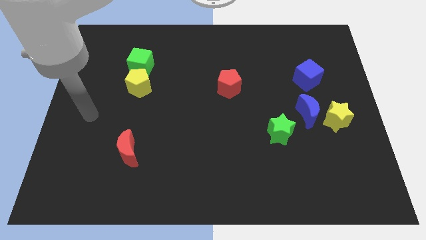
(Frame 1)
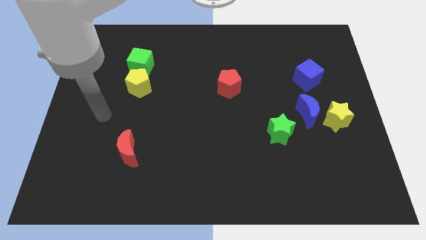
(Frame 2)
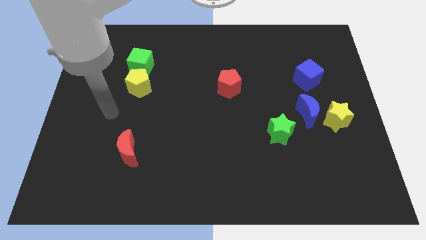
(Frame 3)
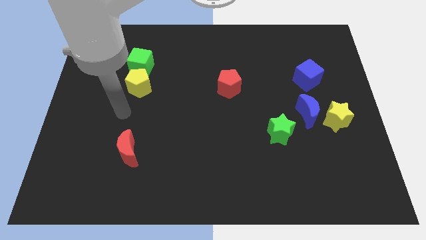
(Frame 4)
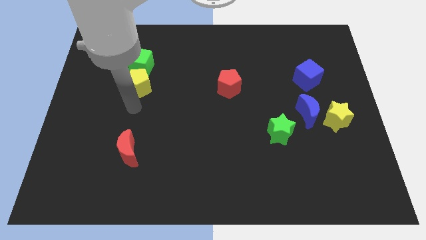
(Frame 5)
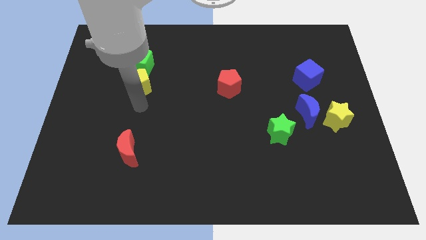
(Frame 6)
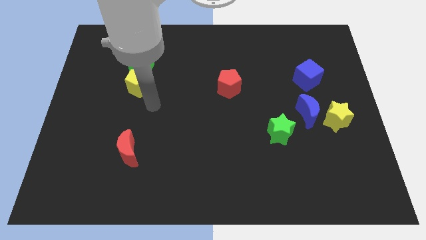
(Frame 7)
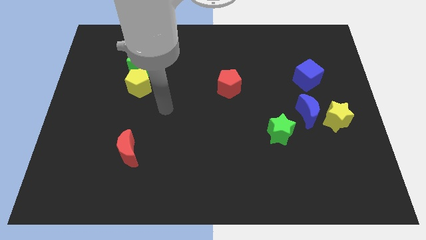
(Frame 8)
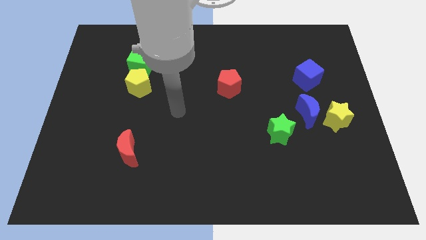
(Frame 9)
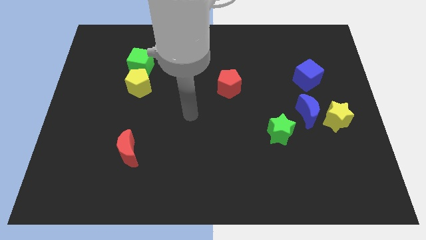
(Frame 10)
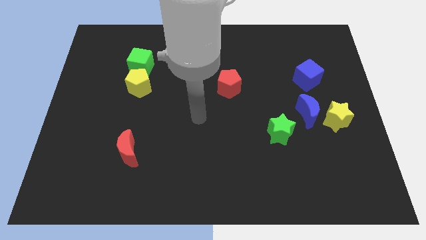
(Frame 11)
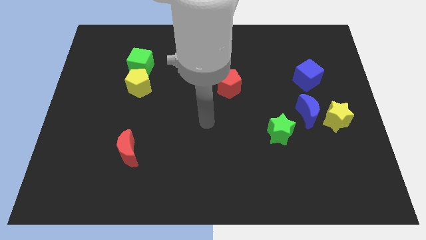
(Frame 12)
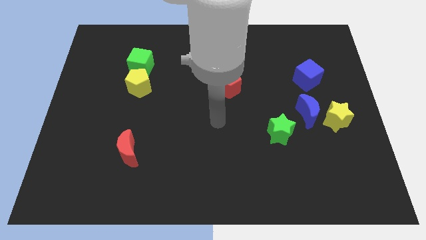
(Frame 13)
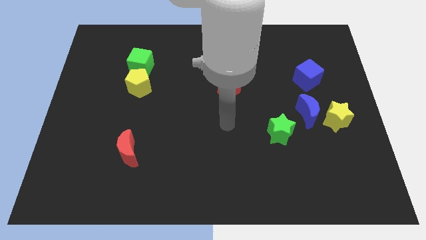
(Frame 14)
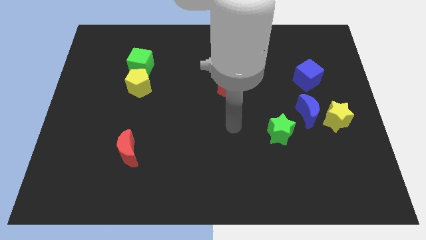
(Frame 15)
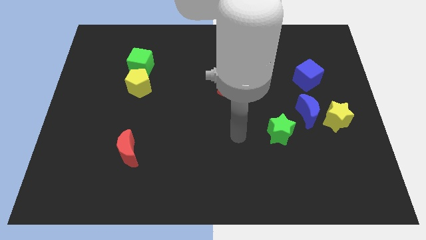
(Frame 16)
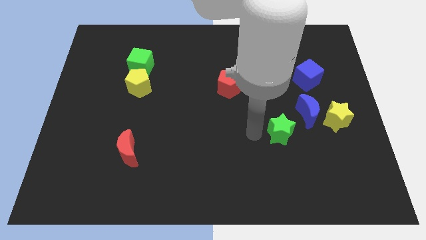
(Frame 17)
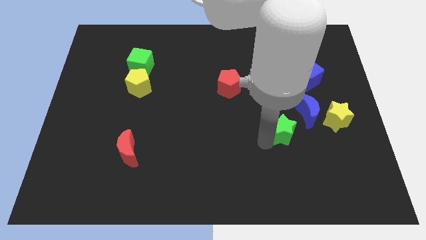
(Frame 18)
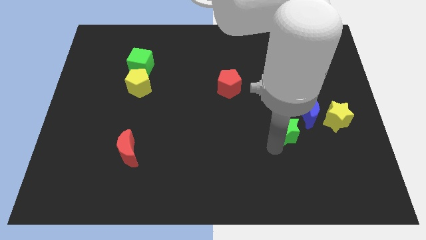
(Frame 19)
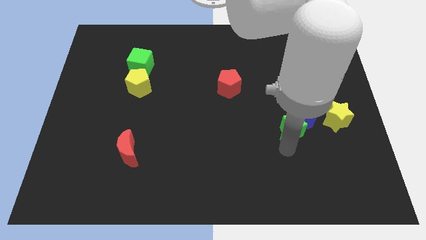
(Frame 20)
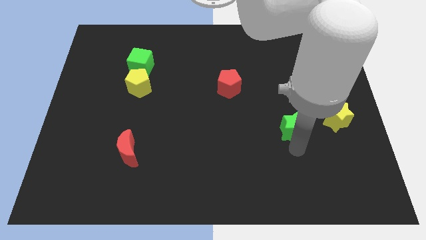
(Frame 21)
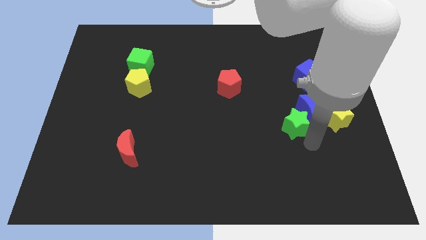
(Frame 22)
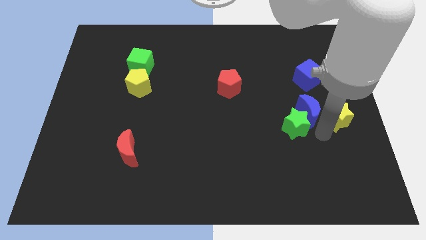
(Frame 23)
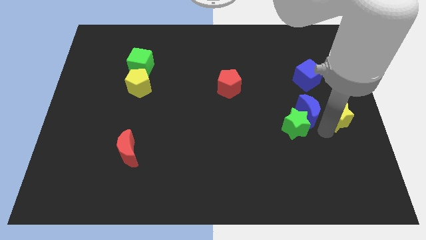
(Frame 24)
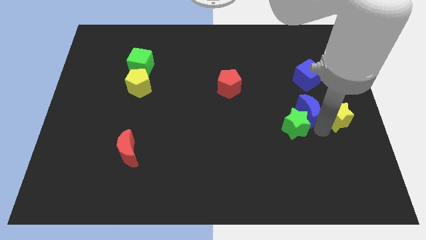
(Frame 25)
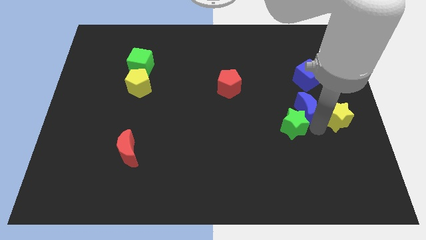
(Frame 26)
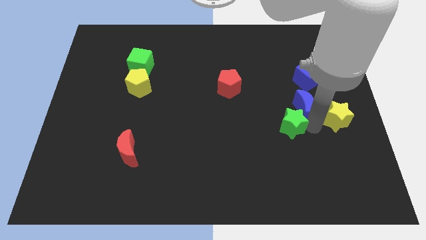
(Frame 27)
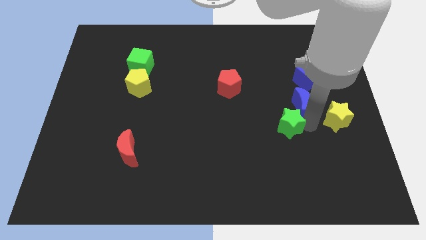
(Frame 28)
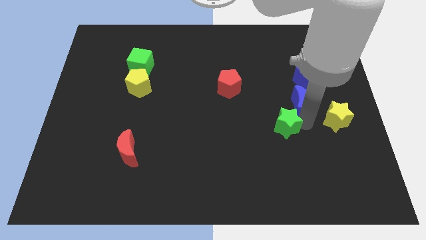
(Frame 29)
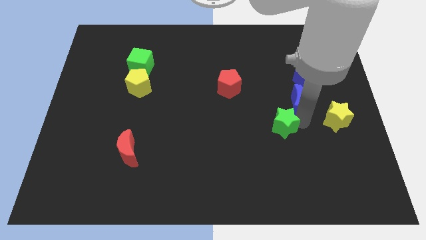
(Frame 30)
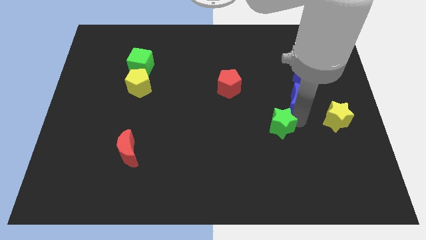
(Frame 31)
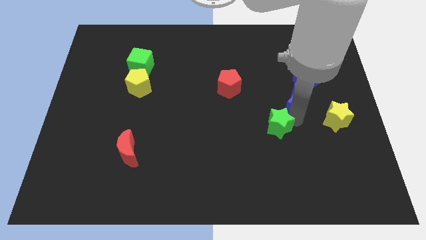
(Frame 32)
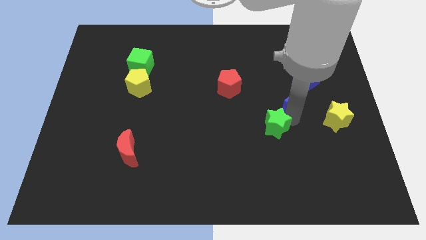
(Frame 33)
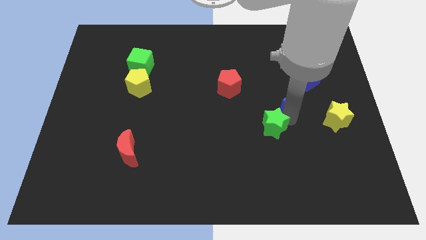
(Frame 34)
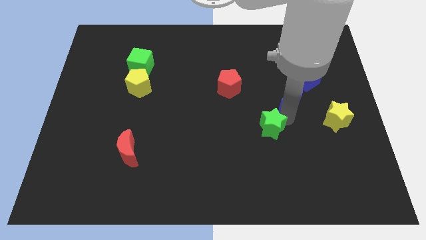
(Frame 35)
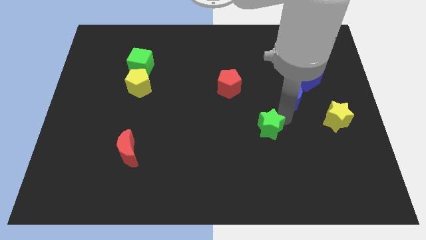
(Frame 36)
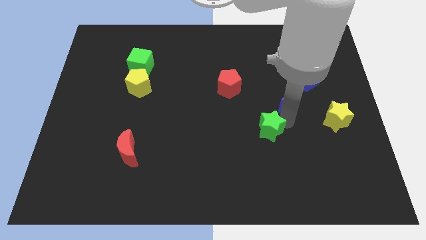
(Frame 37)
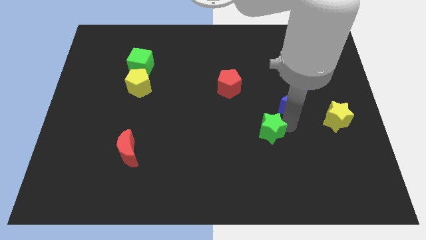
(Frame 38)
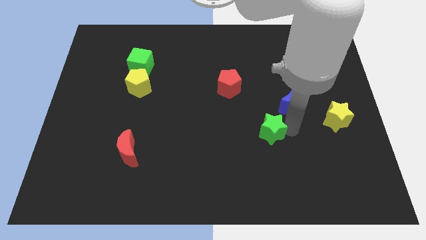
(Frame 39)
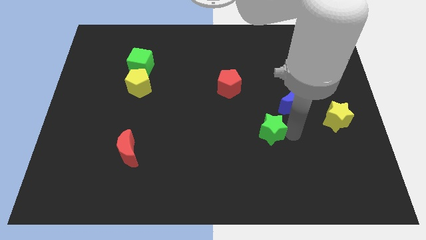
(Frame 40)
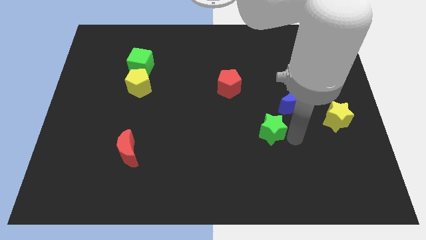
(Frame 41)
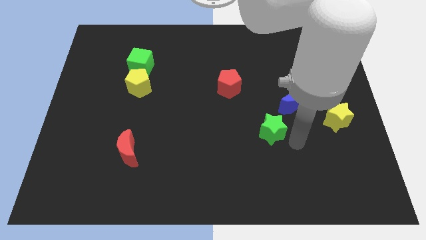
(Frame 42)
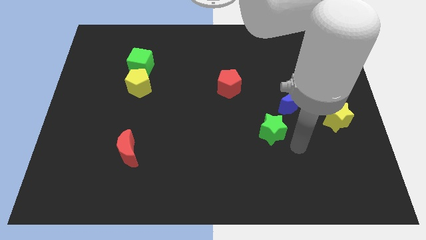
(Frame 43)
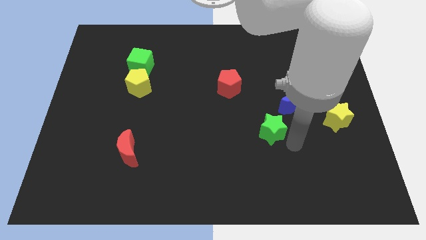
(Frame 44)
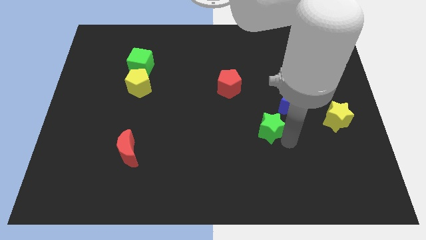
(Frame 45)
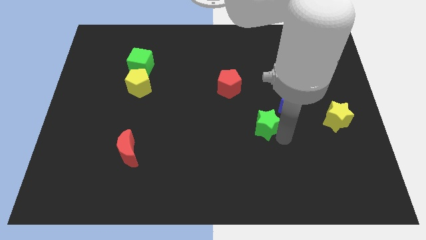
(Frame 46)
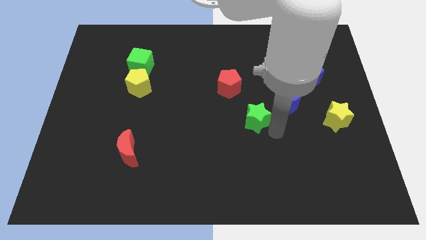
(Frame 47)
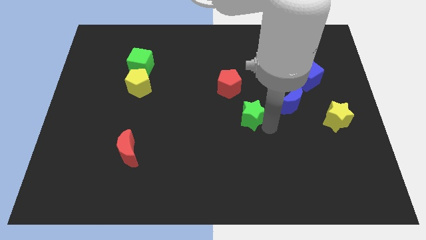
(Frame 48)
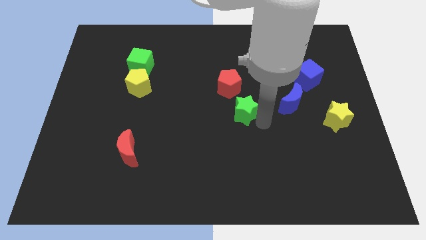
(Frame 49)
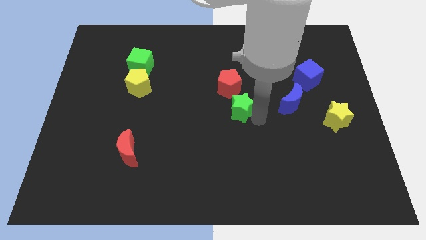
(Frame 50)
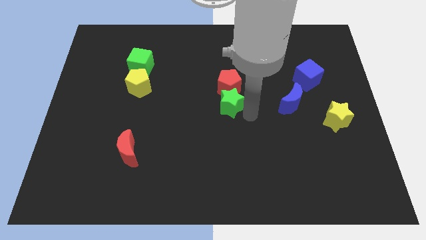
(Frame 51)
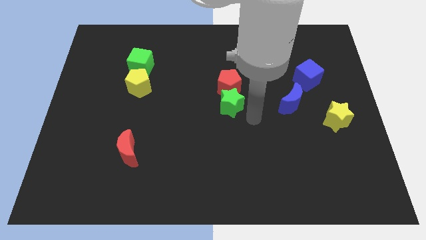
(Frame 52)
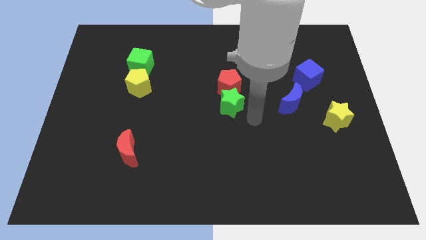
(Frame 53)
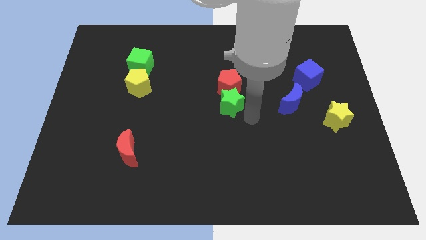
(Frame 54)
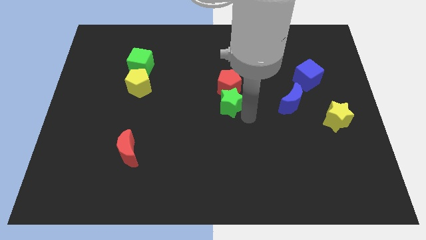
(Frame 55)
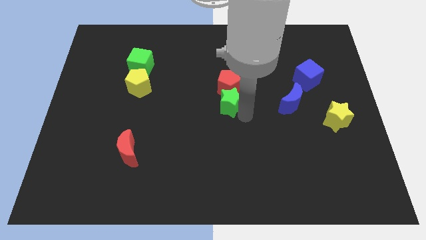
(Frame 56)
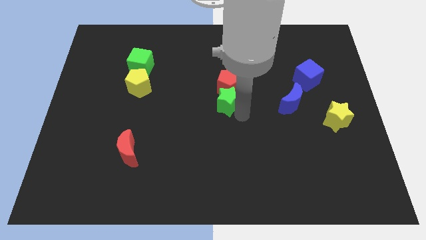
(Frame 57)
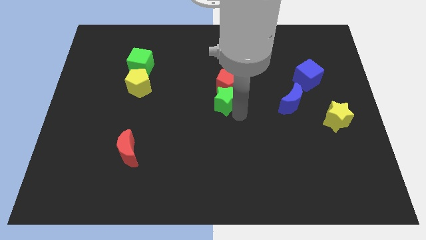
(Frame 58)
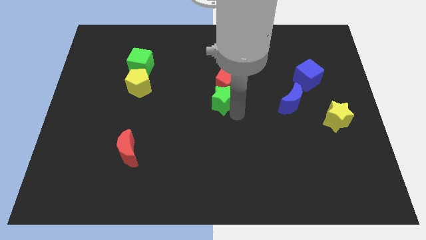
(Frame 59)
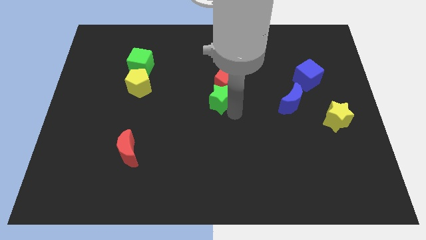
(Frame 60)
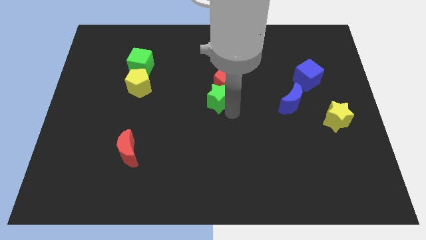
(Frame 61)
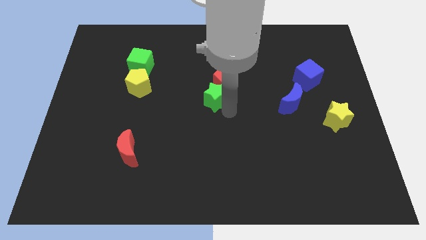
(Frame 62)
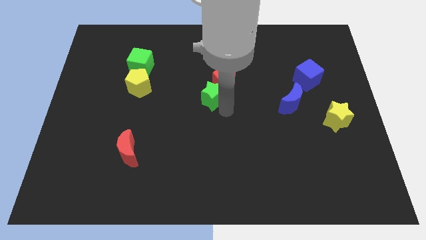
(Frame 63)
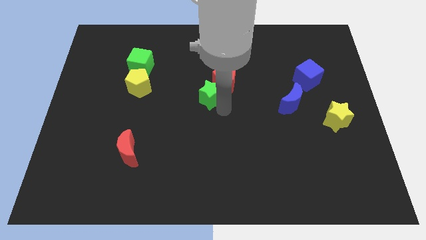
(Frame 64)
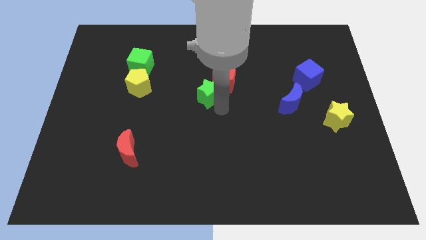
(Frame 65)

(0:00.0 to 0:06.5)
push the green star to the left side of the red pentagon

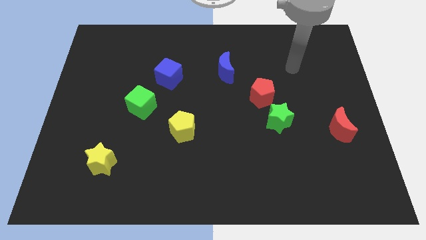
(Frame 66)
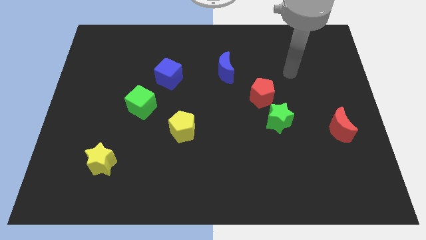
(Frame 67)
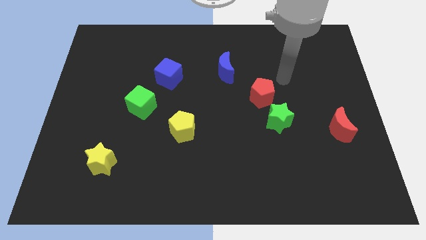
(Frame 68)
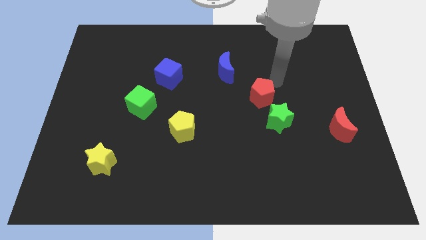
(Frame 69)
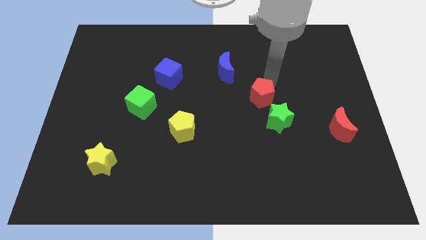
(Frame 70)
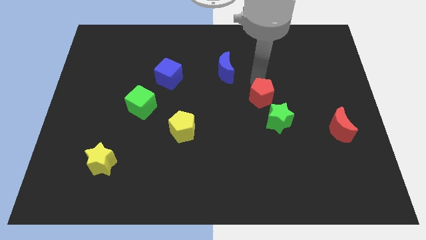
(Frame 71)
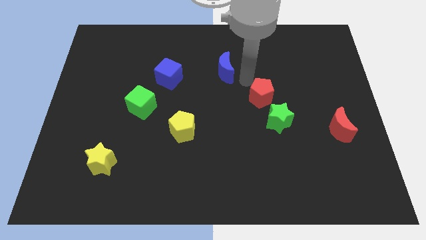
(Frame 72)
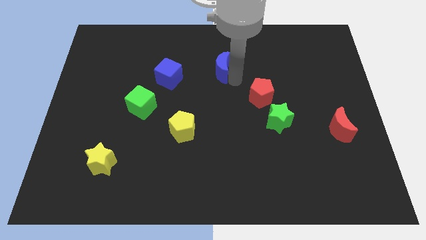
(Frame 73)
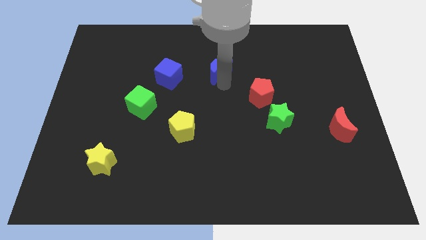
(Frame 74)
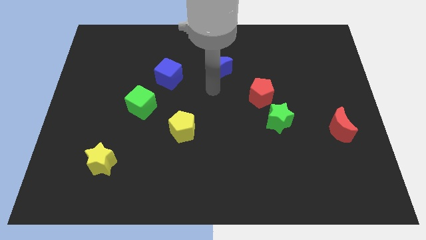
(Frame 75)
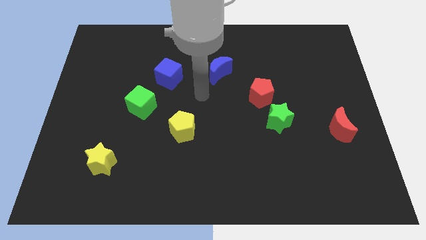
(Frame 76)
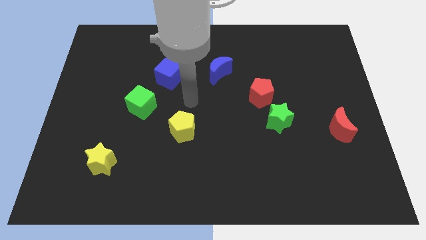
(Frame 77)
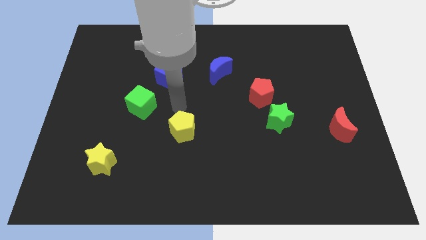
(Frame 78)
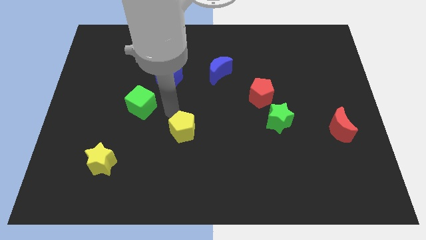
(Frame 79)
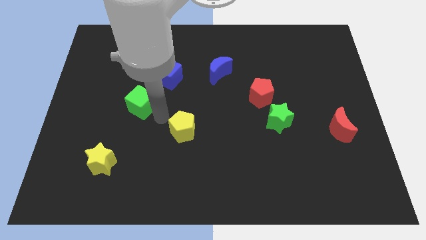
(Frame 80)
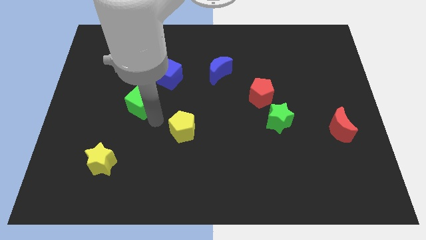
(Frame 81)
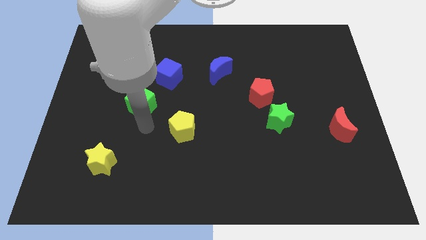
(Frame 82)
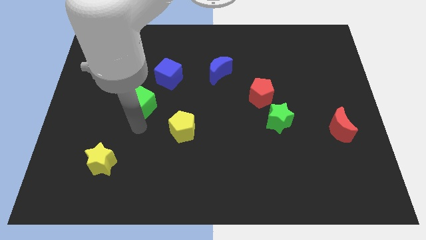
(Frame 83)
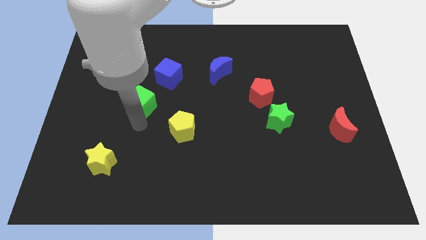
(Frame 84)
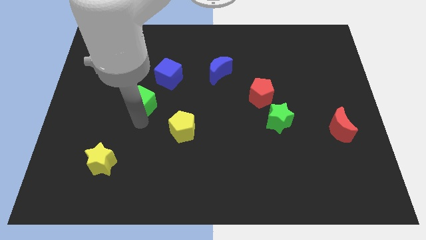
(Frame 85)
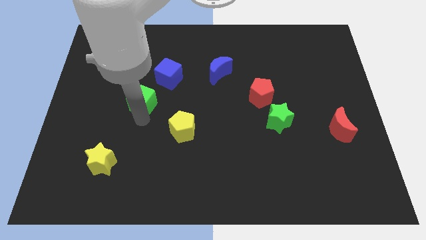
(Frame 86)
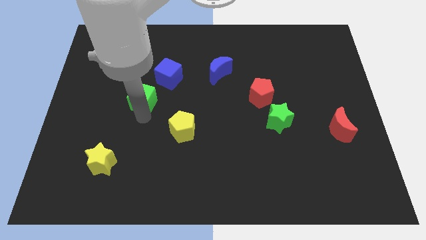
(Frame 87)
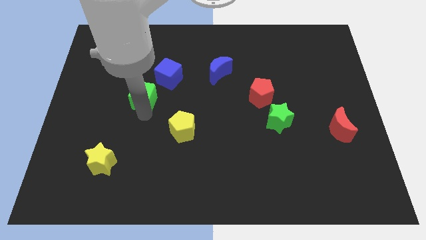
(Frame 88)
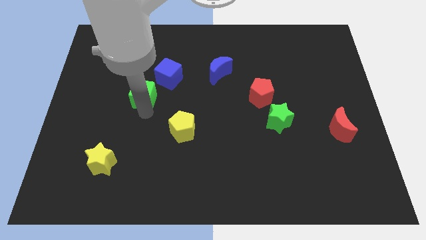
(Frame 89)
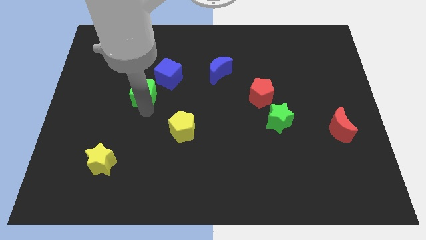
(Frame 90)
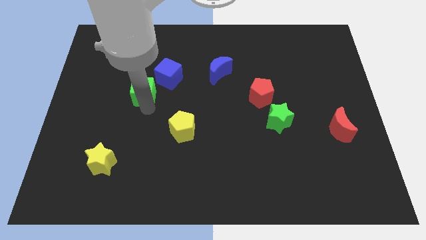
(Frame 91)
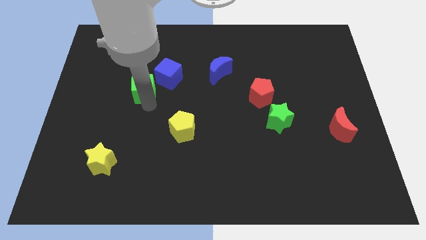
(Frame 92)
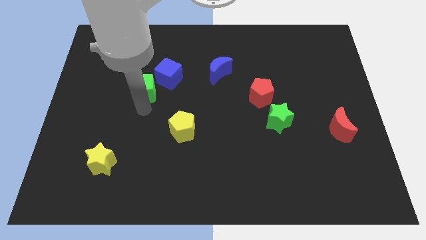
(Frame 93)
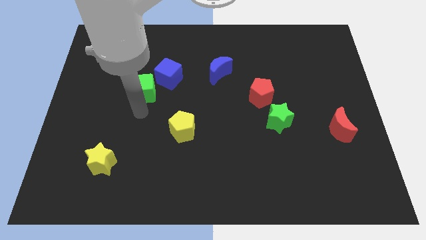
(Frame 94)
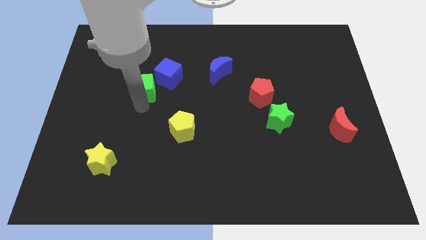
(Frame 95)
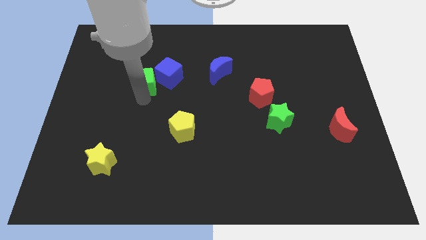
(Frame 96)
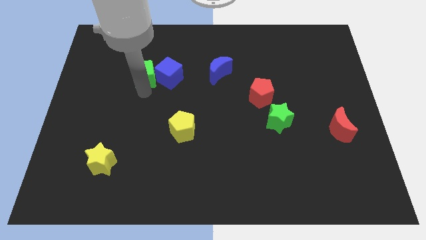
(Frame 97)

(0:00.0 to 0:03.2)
move the green cube diagonally up and to the left of the blue cube
